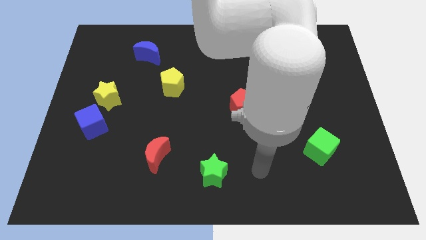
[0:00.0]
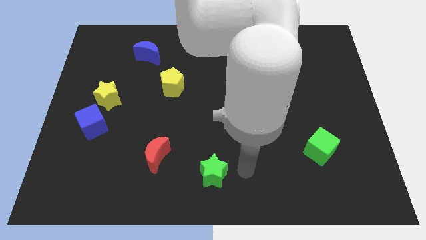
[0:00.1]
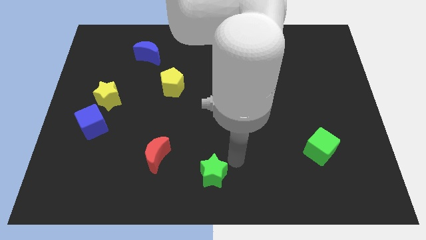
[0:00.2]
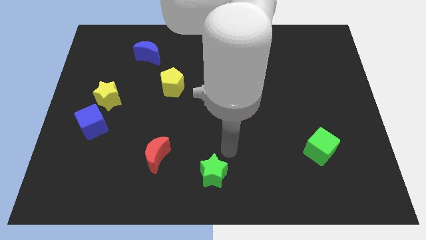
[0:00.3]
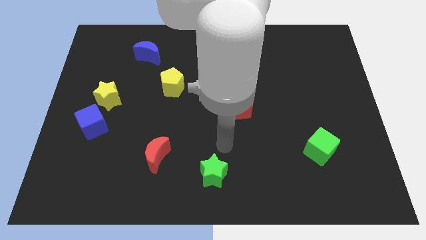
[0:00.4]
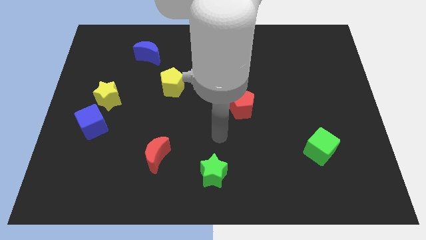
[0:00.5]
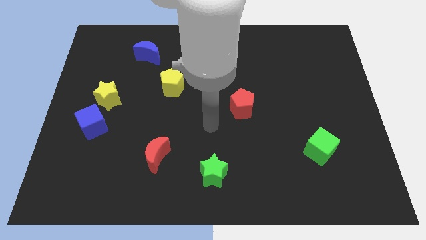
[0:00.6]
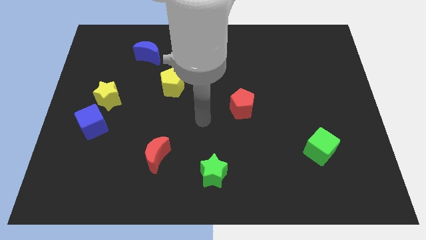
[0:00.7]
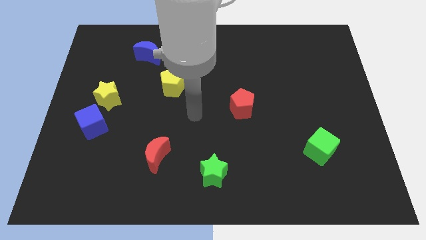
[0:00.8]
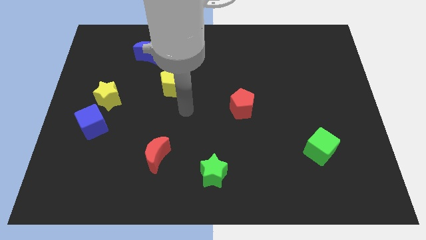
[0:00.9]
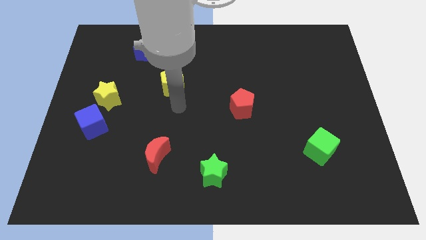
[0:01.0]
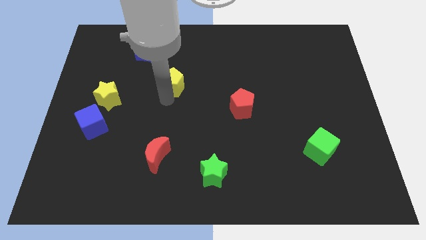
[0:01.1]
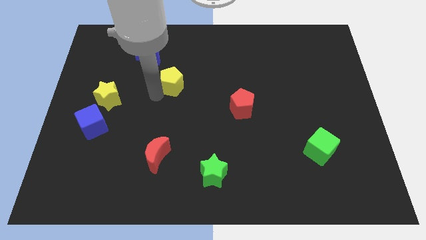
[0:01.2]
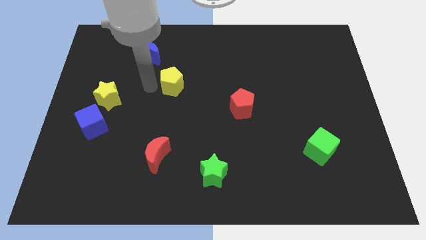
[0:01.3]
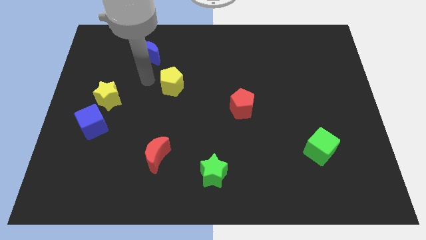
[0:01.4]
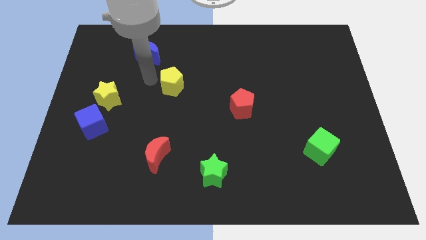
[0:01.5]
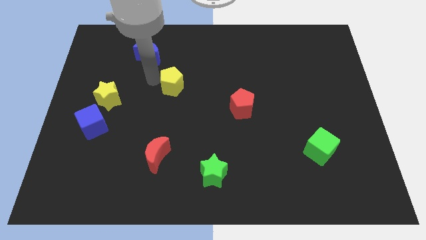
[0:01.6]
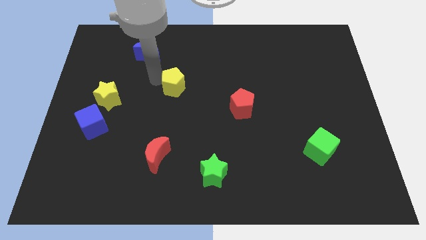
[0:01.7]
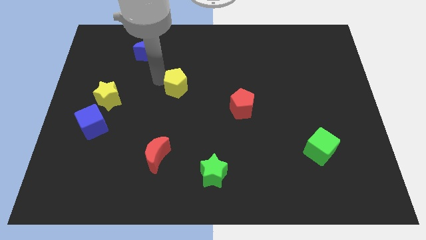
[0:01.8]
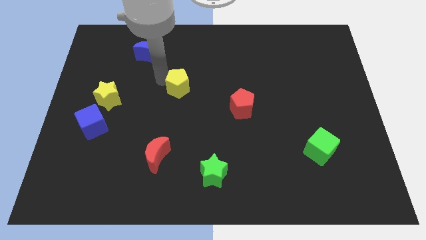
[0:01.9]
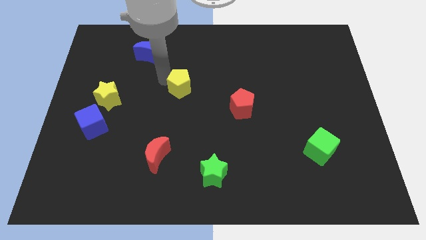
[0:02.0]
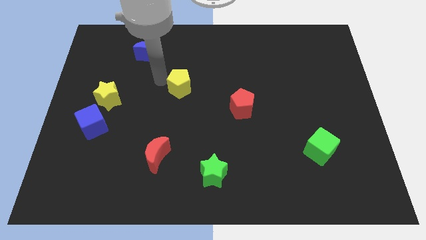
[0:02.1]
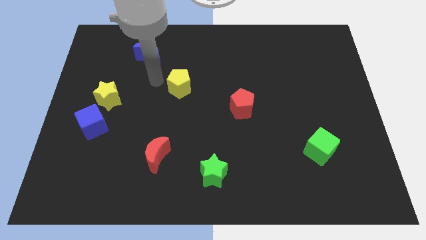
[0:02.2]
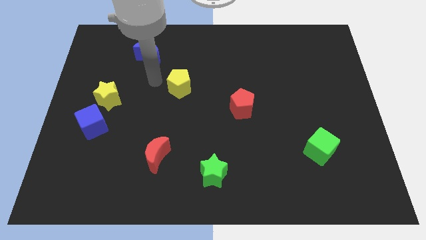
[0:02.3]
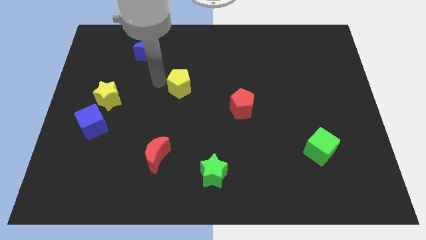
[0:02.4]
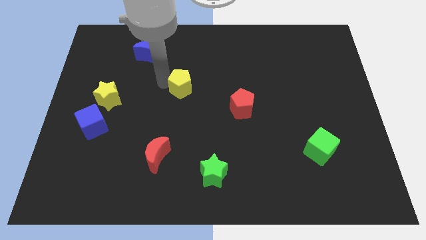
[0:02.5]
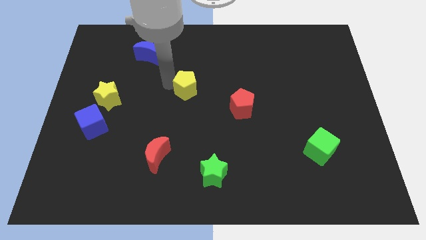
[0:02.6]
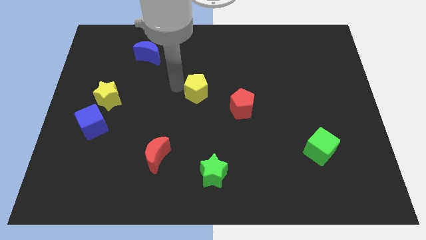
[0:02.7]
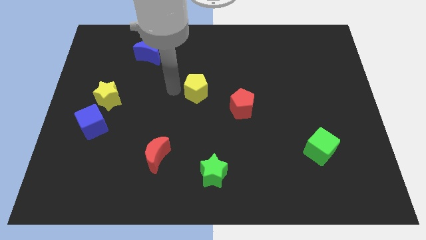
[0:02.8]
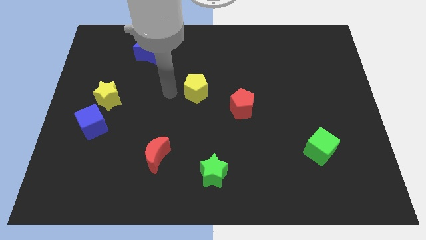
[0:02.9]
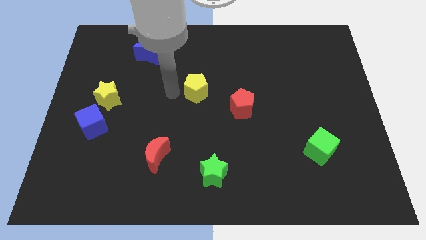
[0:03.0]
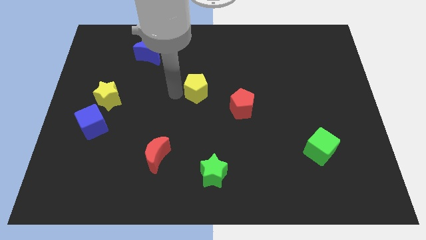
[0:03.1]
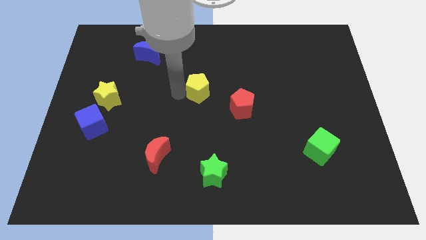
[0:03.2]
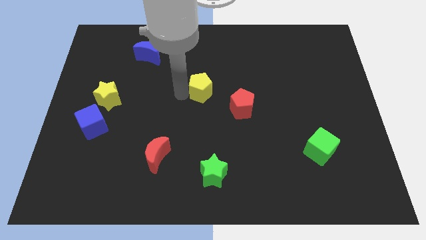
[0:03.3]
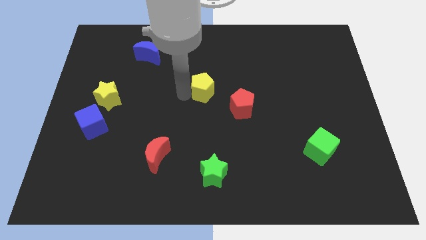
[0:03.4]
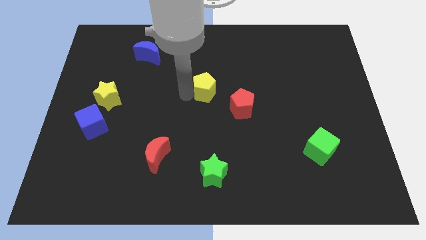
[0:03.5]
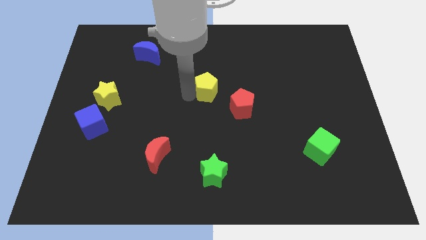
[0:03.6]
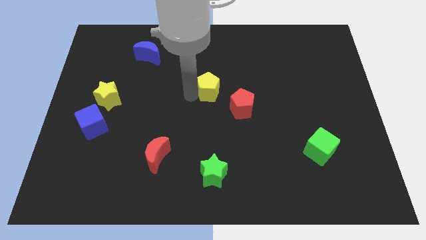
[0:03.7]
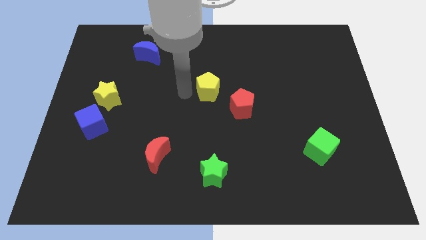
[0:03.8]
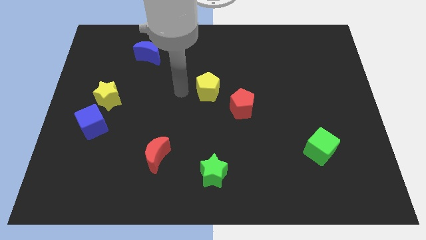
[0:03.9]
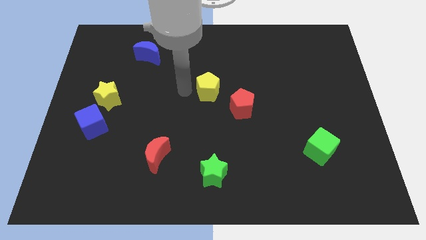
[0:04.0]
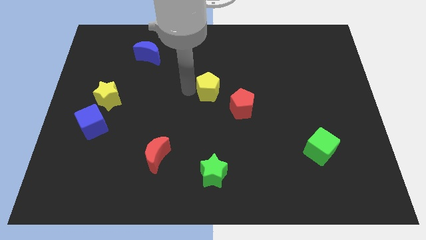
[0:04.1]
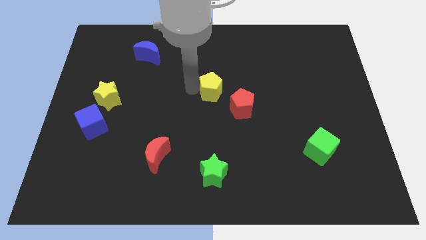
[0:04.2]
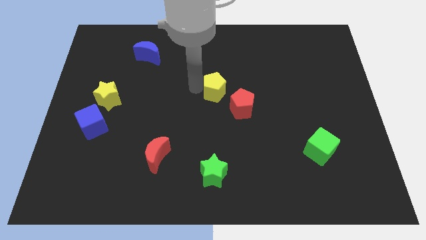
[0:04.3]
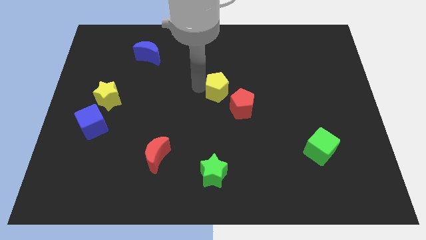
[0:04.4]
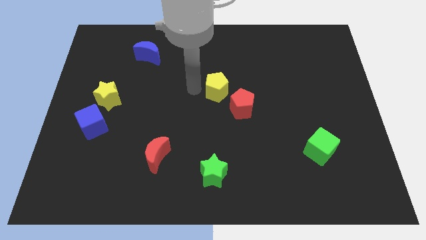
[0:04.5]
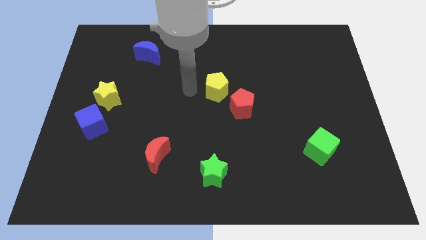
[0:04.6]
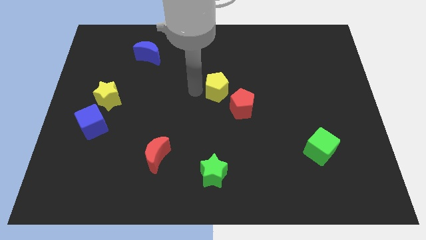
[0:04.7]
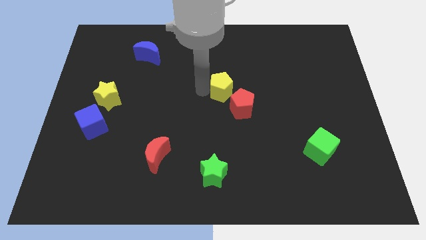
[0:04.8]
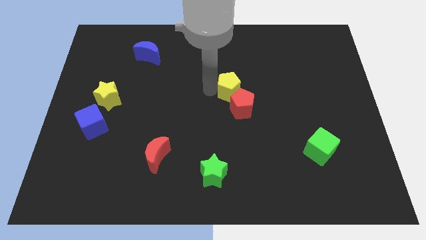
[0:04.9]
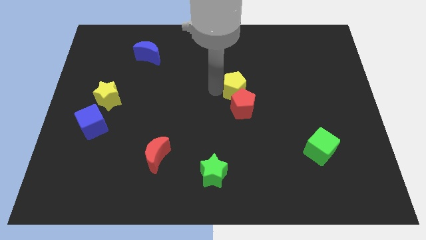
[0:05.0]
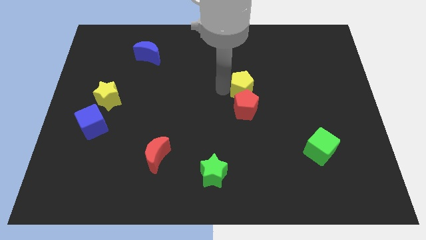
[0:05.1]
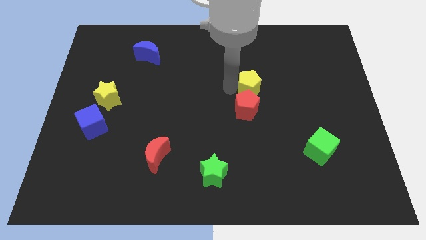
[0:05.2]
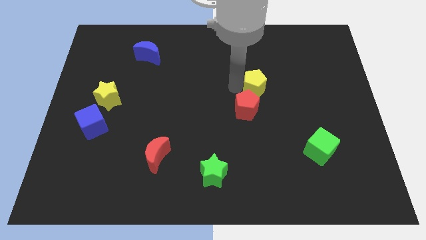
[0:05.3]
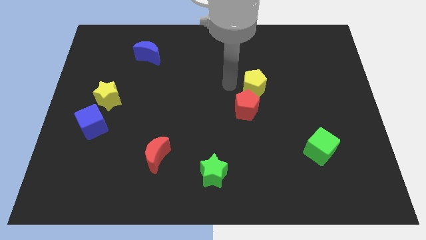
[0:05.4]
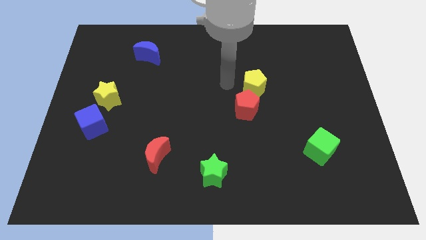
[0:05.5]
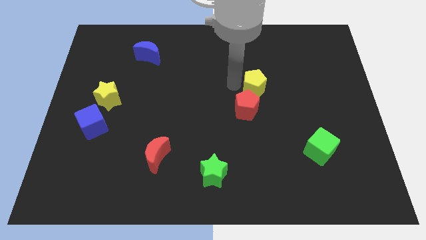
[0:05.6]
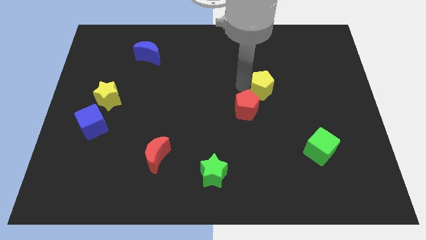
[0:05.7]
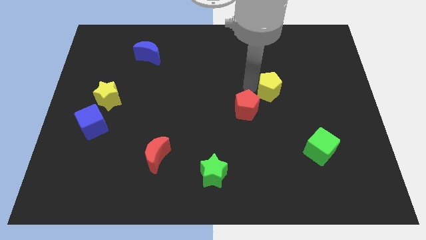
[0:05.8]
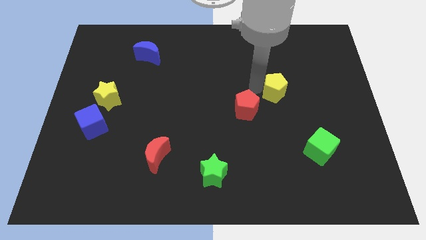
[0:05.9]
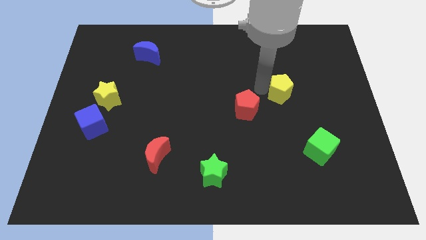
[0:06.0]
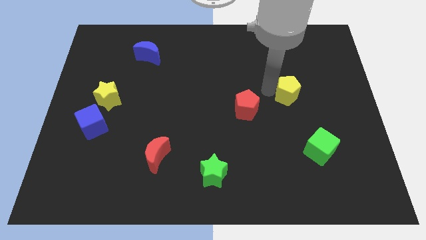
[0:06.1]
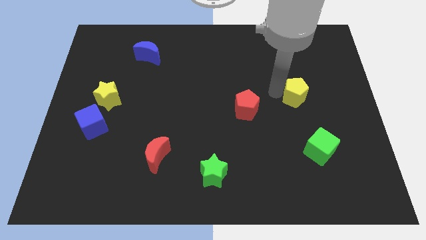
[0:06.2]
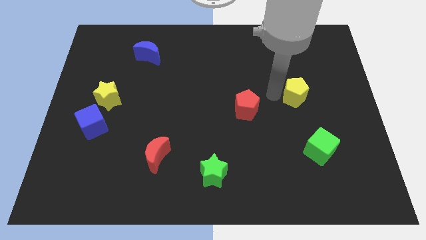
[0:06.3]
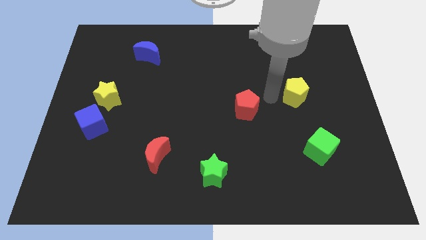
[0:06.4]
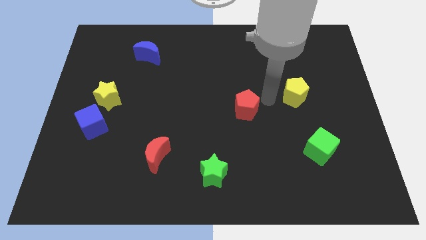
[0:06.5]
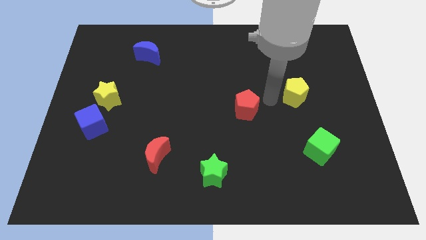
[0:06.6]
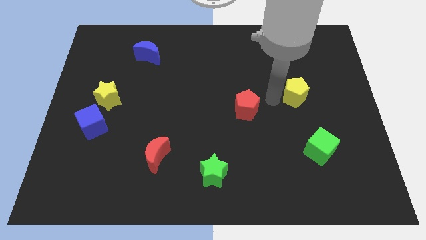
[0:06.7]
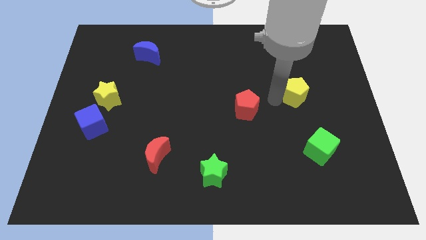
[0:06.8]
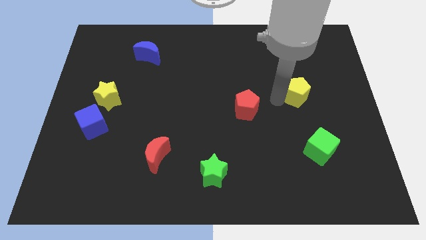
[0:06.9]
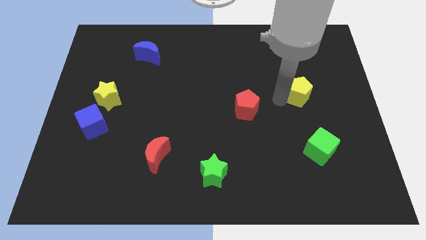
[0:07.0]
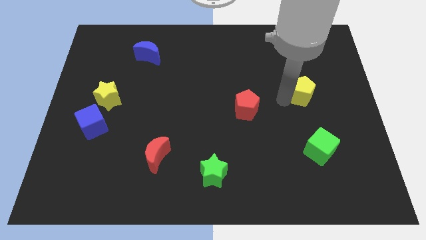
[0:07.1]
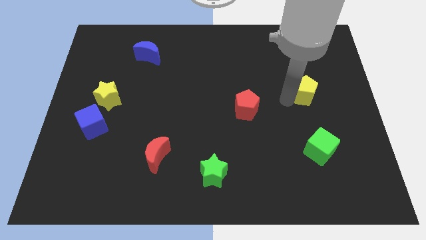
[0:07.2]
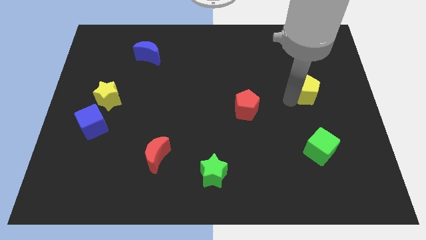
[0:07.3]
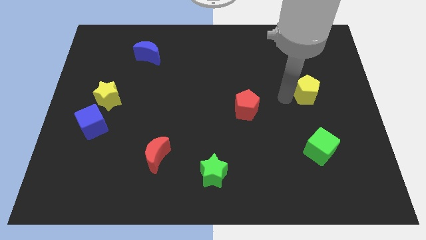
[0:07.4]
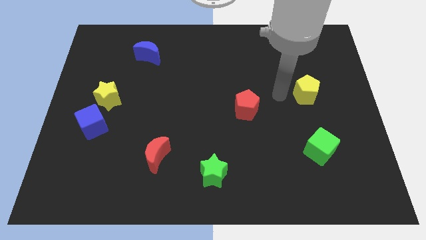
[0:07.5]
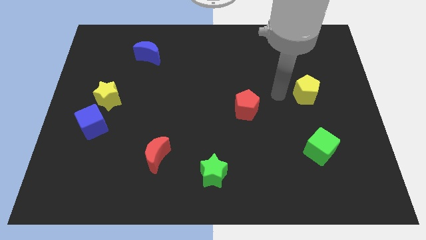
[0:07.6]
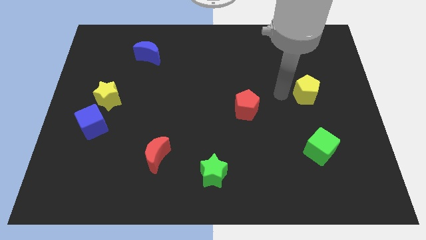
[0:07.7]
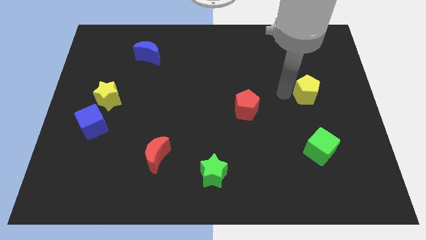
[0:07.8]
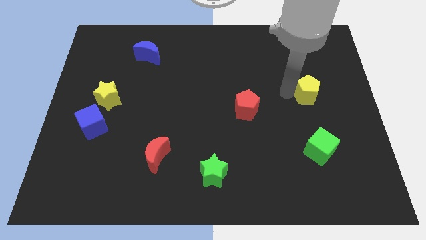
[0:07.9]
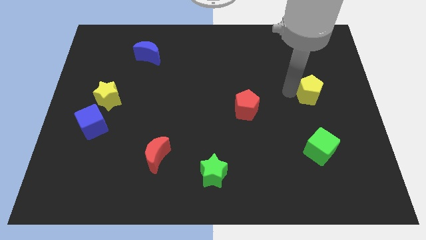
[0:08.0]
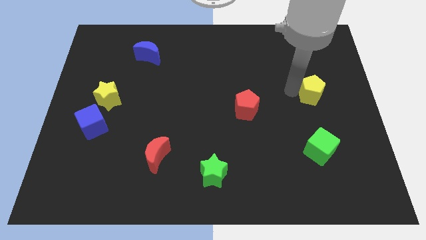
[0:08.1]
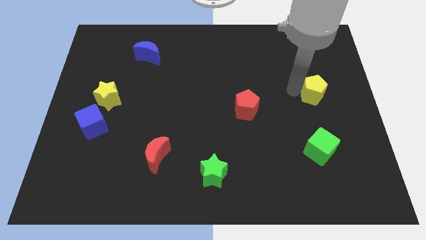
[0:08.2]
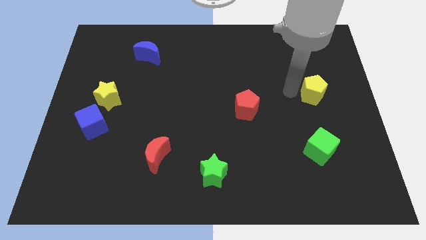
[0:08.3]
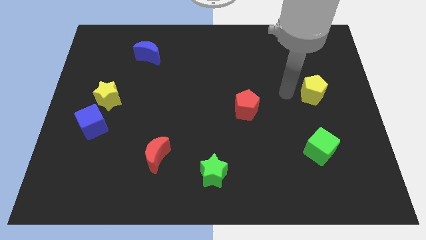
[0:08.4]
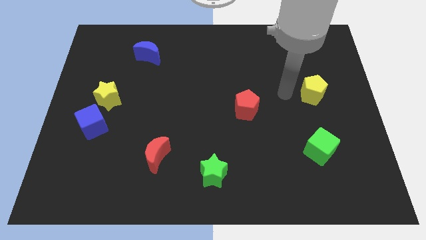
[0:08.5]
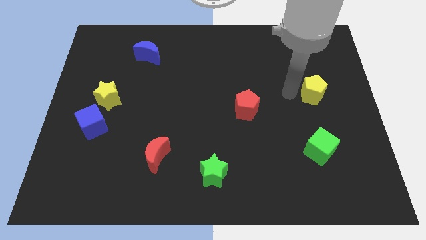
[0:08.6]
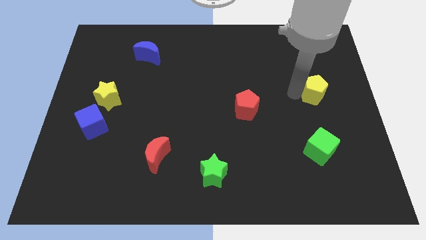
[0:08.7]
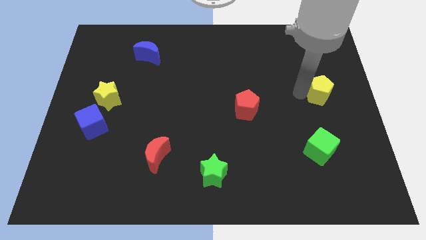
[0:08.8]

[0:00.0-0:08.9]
put the yellow pentagon to the right side
